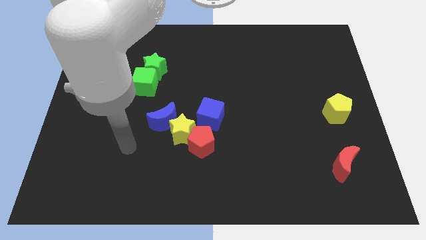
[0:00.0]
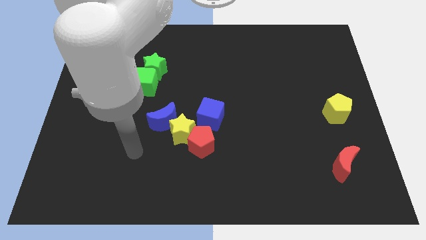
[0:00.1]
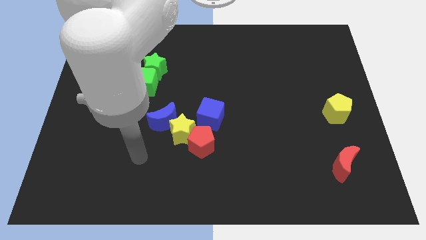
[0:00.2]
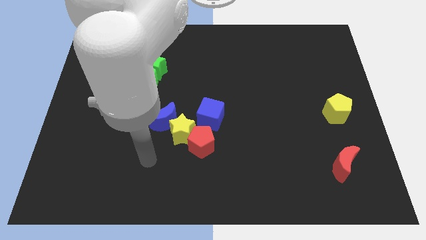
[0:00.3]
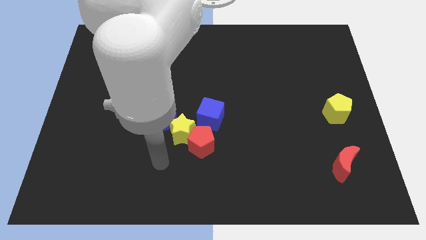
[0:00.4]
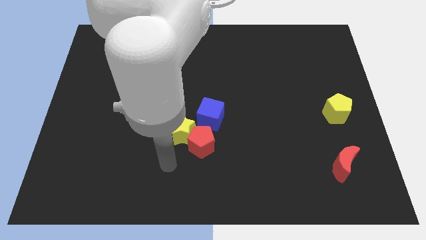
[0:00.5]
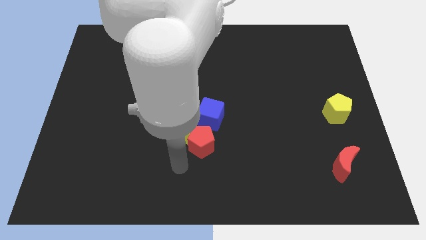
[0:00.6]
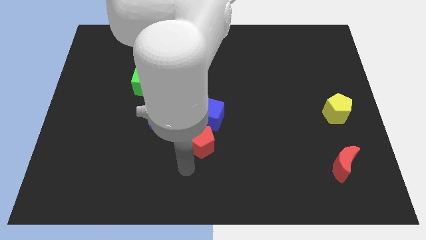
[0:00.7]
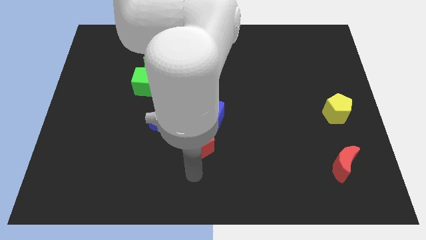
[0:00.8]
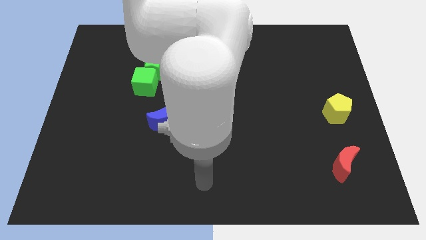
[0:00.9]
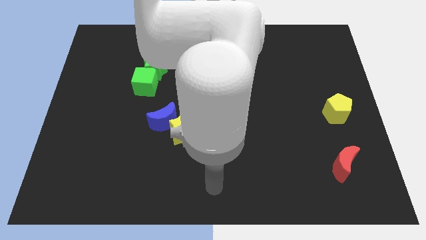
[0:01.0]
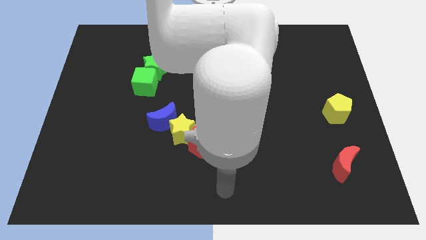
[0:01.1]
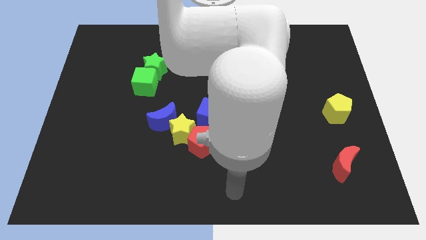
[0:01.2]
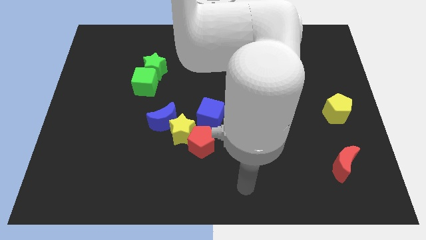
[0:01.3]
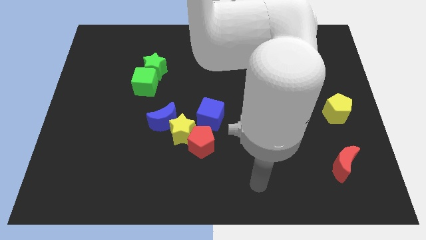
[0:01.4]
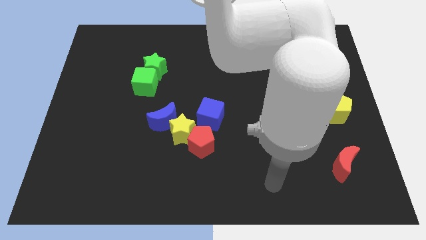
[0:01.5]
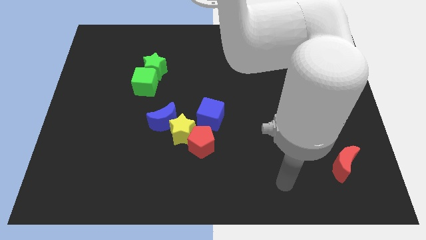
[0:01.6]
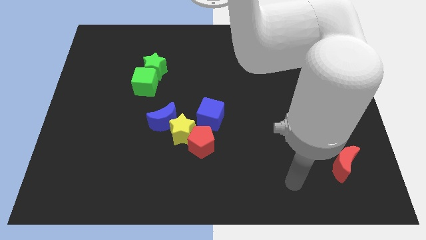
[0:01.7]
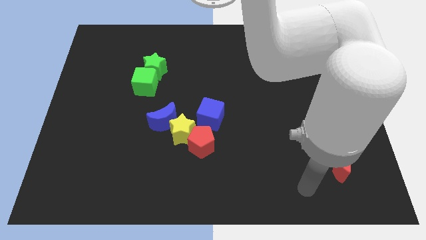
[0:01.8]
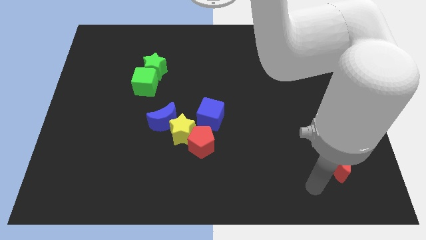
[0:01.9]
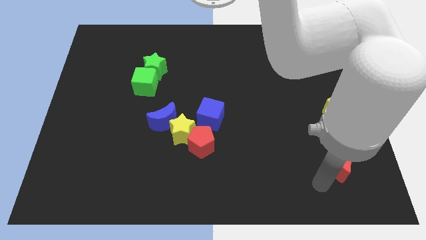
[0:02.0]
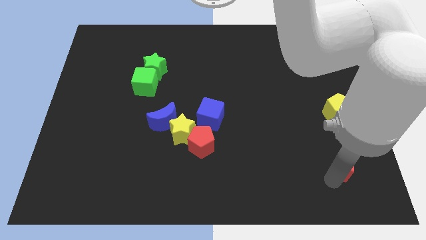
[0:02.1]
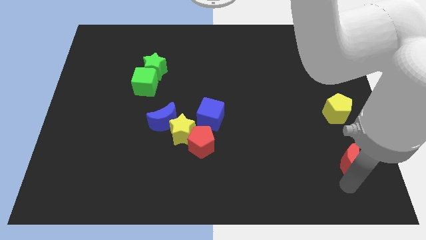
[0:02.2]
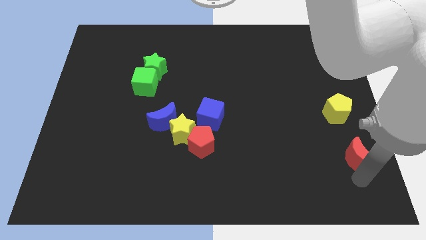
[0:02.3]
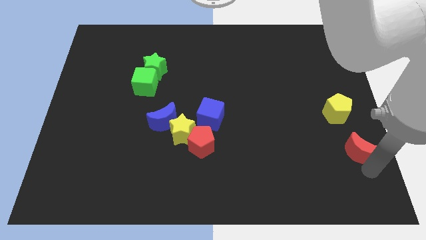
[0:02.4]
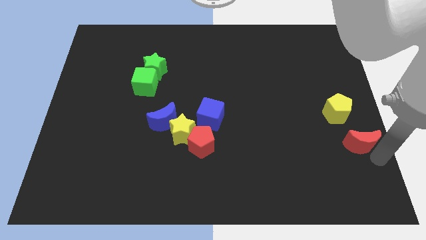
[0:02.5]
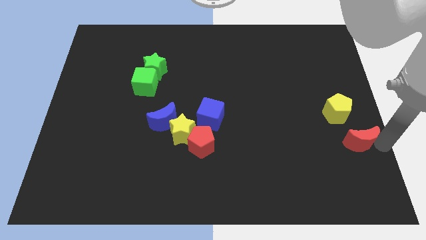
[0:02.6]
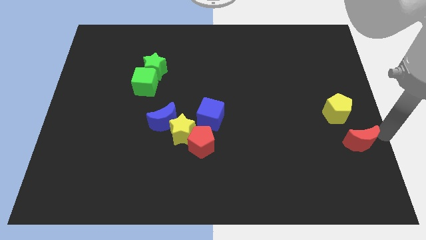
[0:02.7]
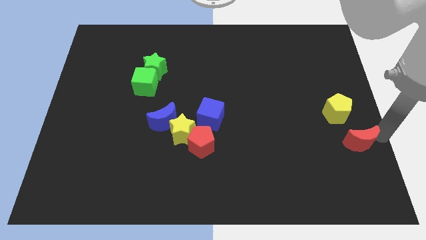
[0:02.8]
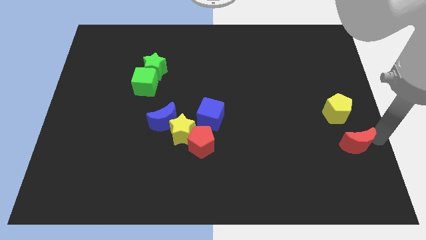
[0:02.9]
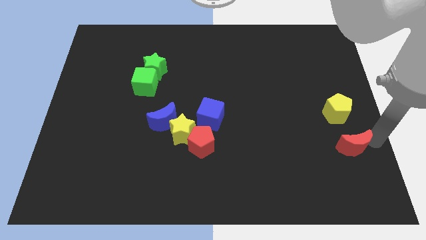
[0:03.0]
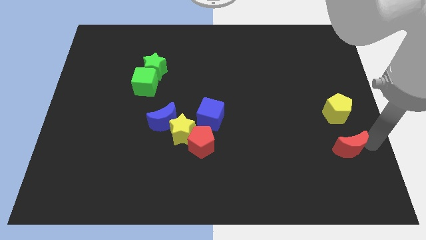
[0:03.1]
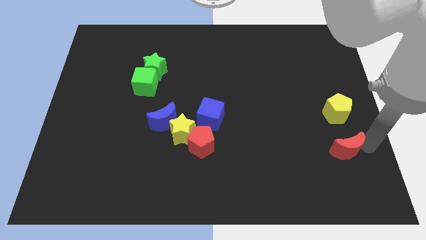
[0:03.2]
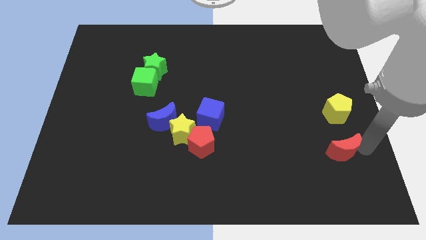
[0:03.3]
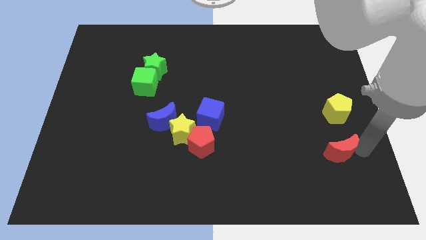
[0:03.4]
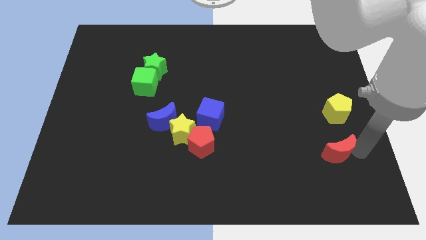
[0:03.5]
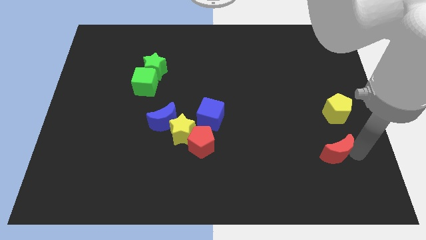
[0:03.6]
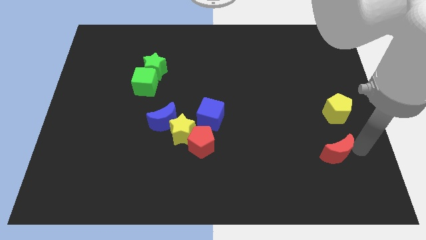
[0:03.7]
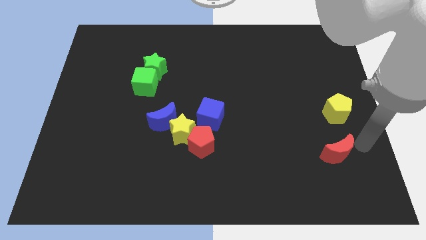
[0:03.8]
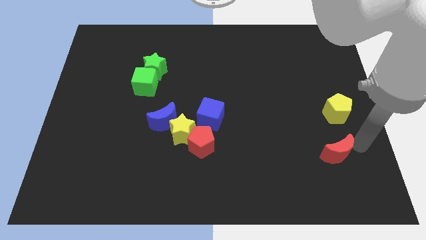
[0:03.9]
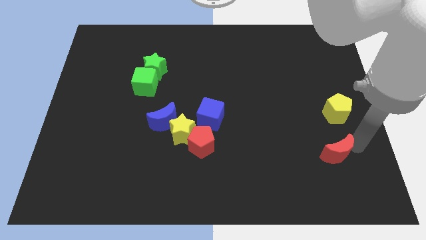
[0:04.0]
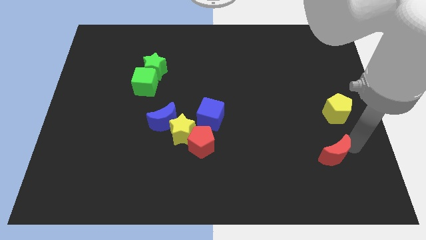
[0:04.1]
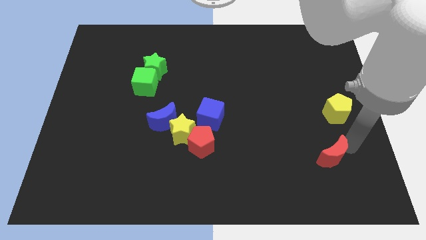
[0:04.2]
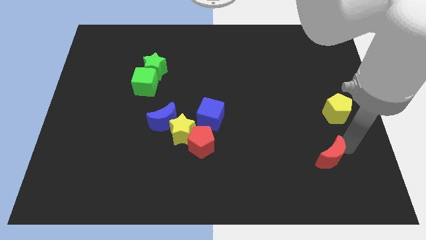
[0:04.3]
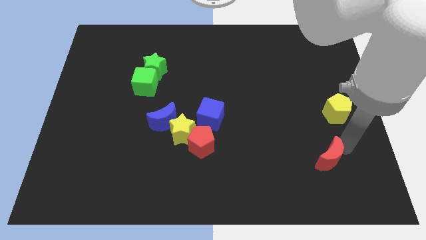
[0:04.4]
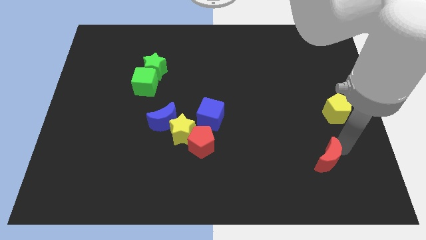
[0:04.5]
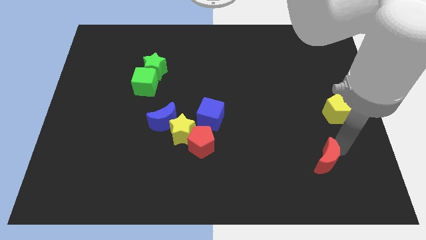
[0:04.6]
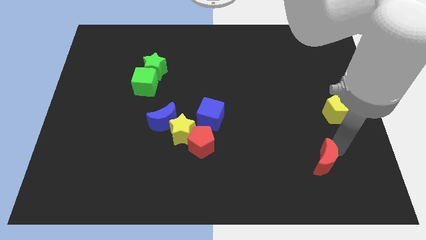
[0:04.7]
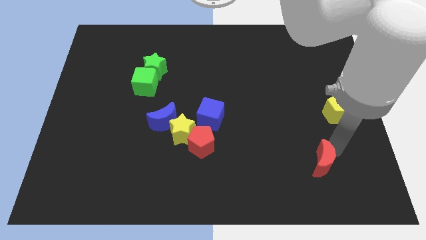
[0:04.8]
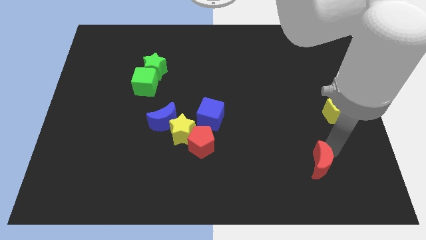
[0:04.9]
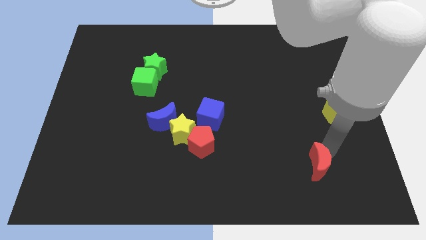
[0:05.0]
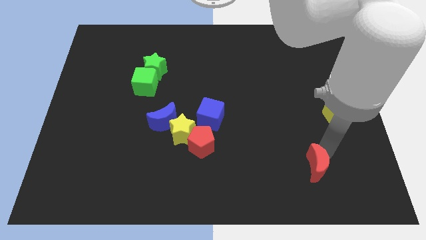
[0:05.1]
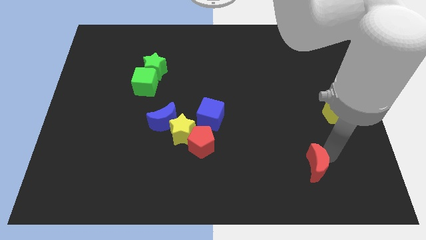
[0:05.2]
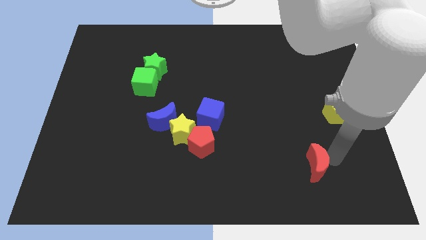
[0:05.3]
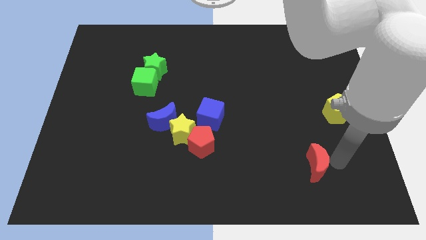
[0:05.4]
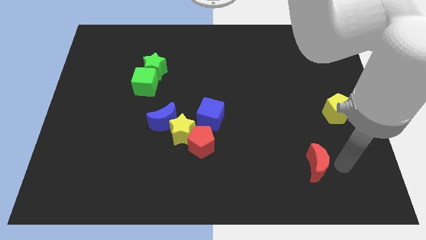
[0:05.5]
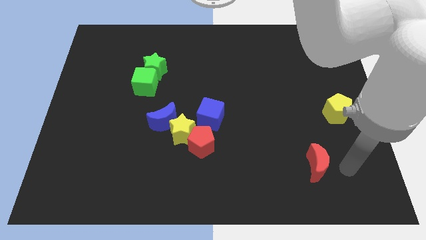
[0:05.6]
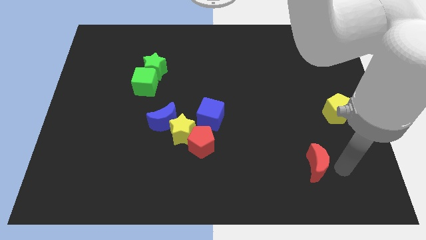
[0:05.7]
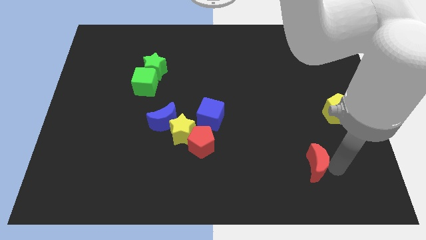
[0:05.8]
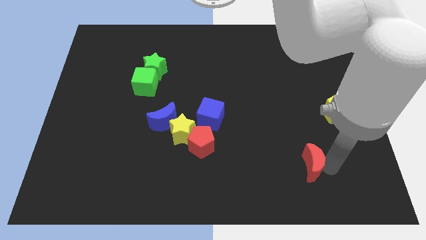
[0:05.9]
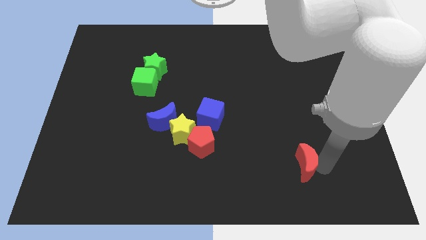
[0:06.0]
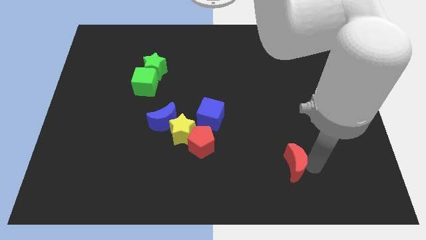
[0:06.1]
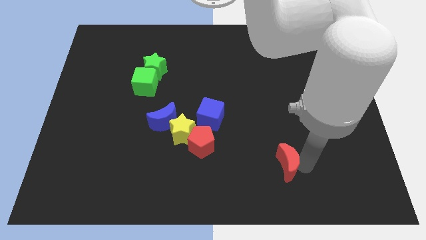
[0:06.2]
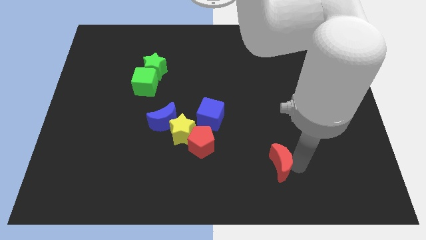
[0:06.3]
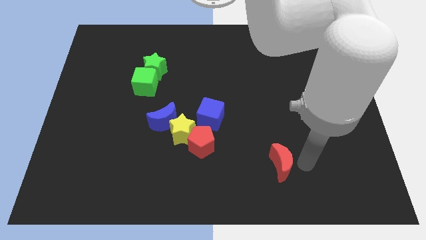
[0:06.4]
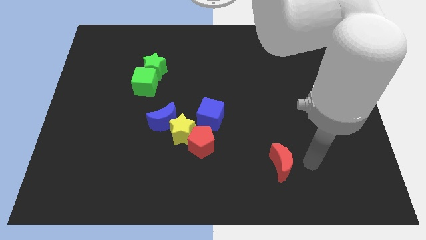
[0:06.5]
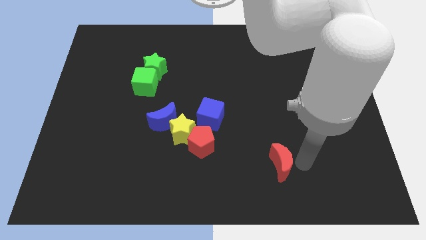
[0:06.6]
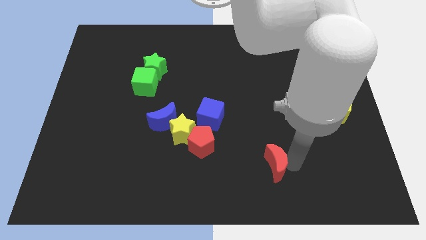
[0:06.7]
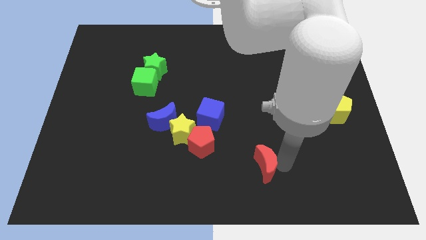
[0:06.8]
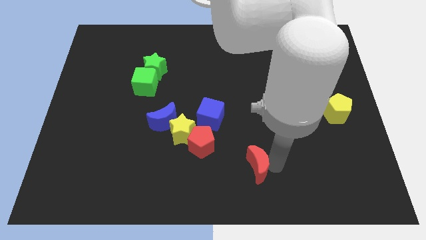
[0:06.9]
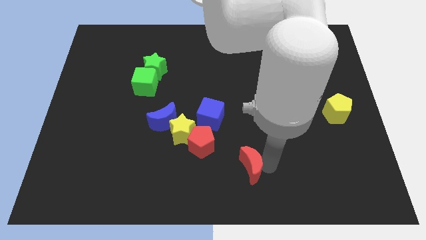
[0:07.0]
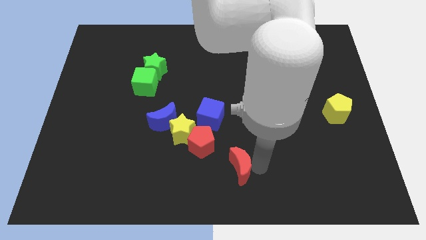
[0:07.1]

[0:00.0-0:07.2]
push the red moon to the left

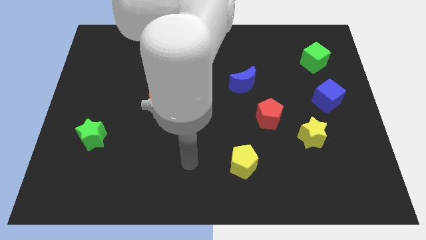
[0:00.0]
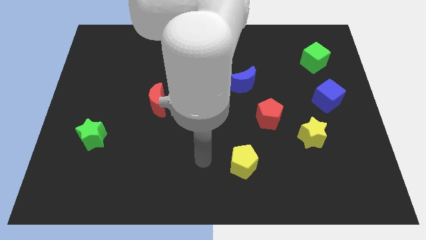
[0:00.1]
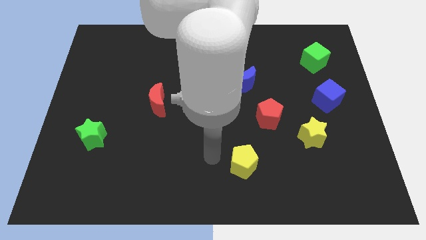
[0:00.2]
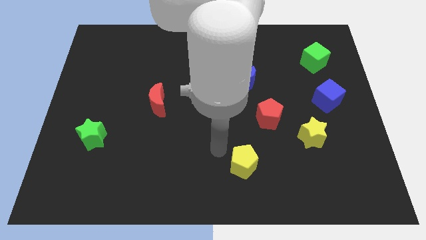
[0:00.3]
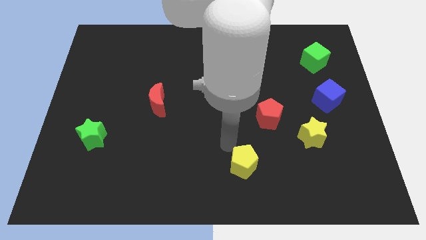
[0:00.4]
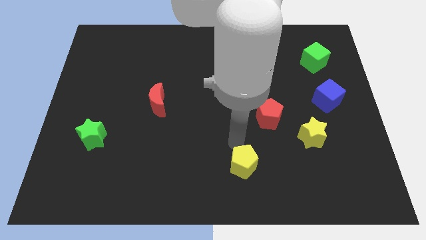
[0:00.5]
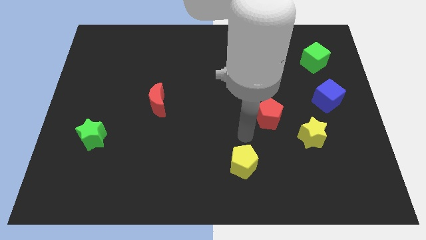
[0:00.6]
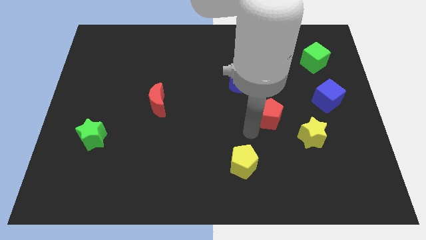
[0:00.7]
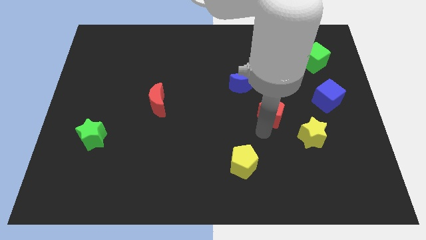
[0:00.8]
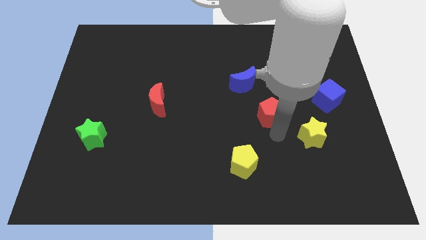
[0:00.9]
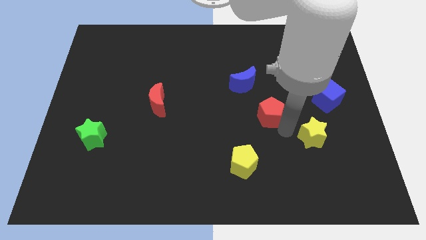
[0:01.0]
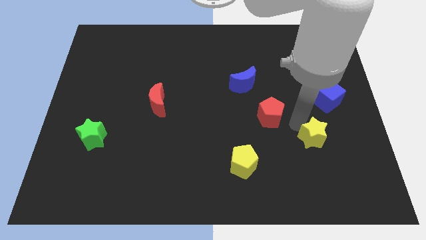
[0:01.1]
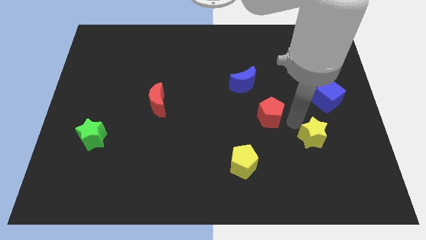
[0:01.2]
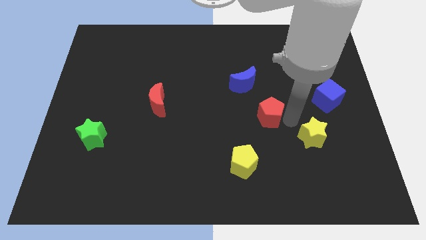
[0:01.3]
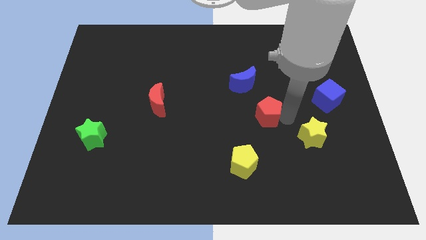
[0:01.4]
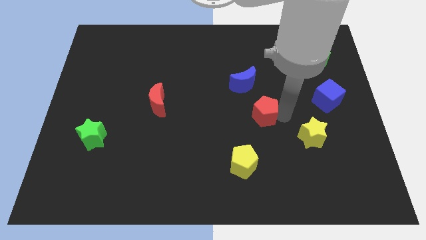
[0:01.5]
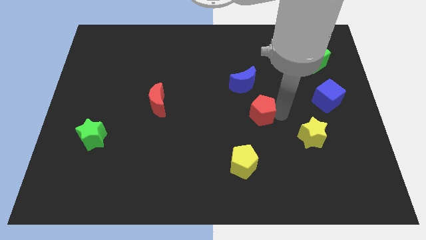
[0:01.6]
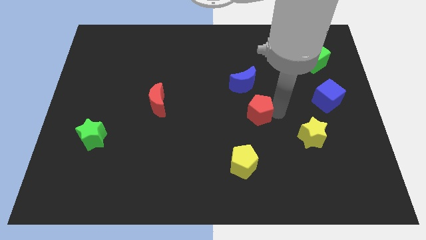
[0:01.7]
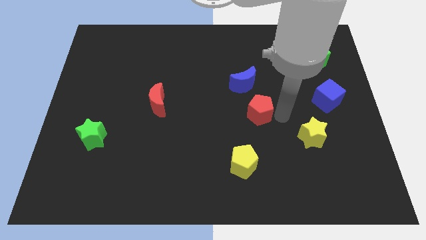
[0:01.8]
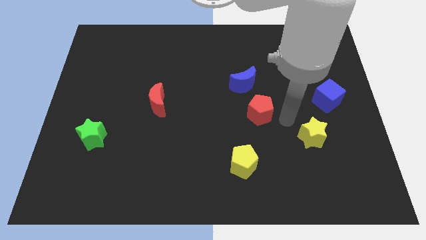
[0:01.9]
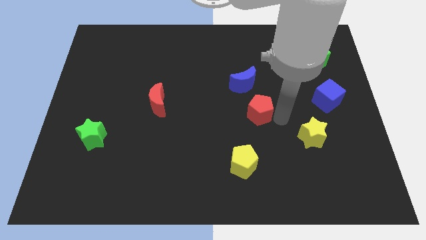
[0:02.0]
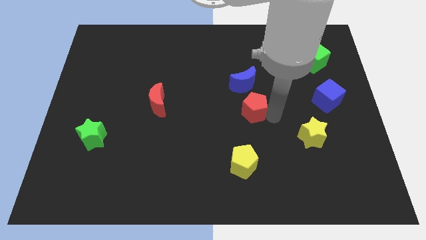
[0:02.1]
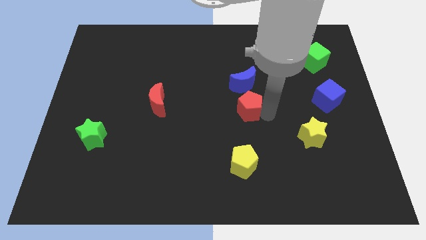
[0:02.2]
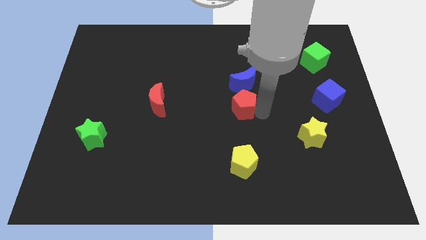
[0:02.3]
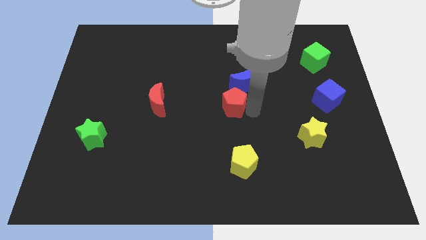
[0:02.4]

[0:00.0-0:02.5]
push the red pentagon up and to the left diagonally a bit
